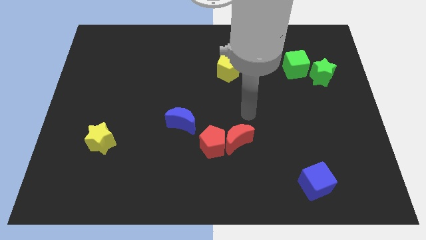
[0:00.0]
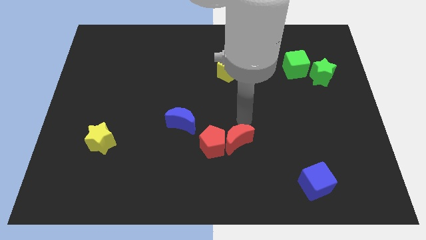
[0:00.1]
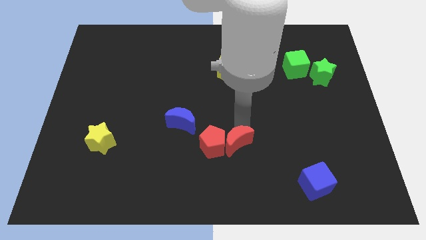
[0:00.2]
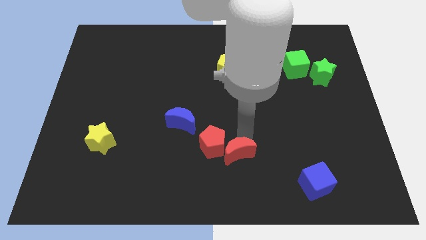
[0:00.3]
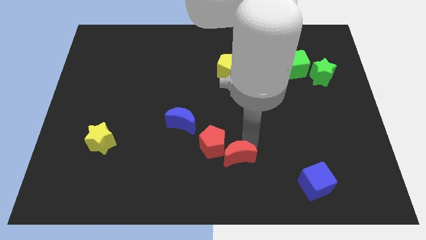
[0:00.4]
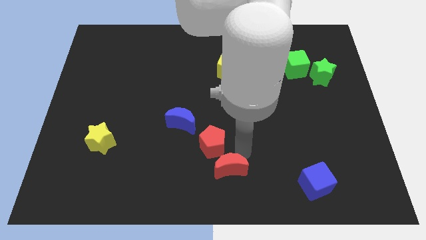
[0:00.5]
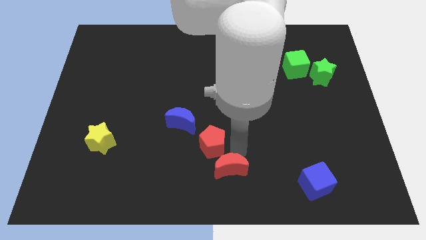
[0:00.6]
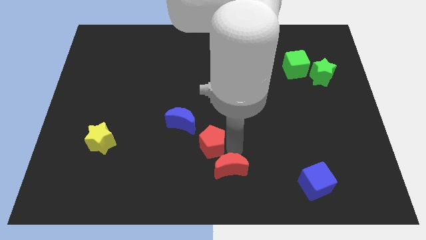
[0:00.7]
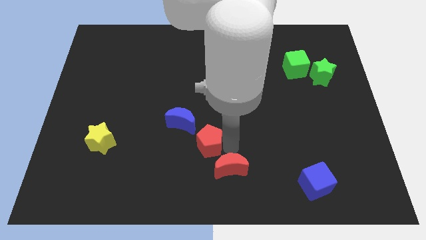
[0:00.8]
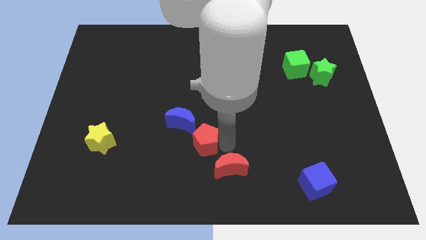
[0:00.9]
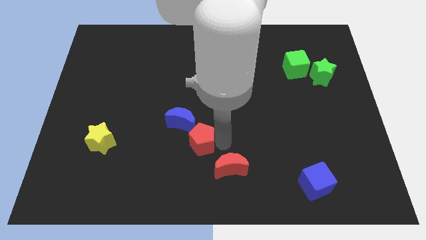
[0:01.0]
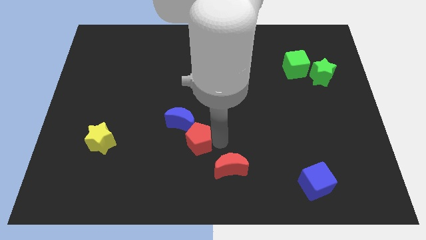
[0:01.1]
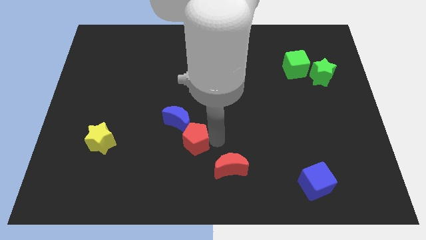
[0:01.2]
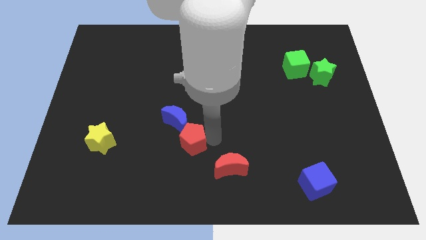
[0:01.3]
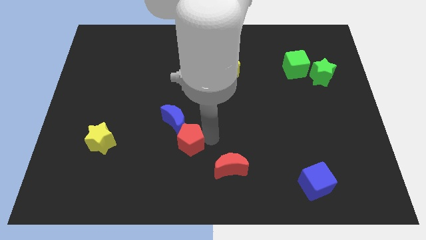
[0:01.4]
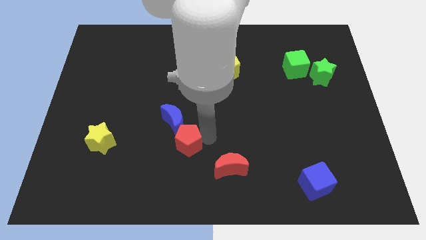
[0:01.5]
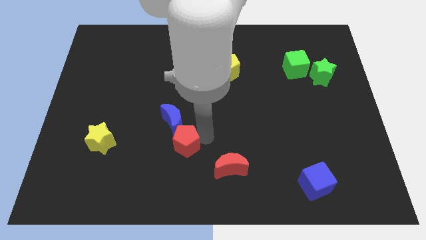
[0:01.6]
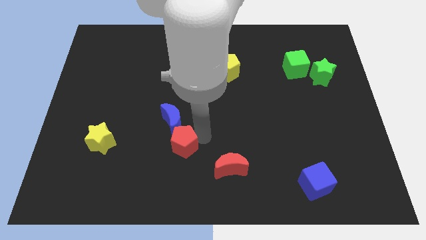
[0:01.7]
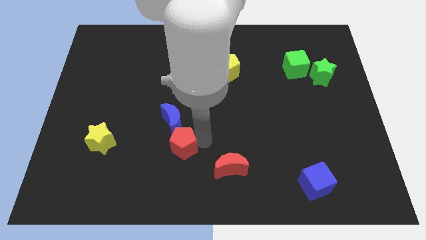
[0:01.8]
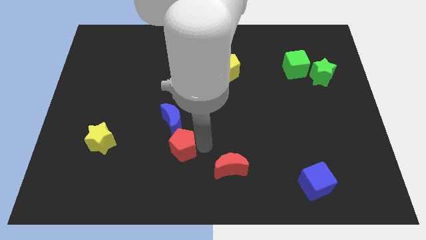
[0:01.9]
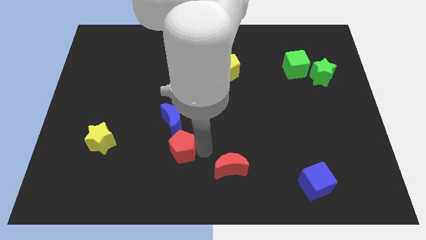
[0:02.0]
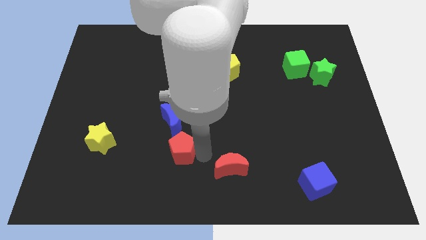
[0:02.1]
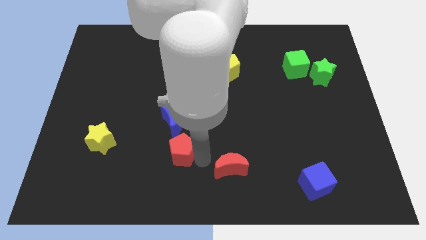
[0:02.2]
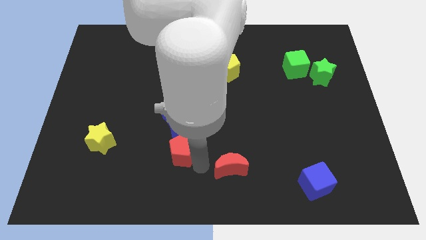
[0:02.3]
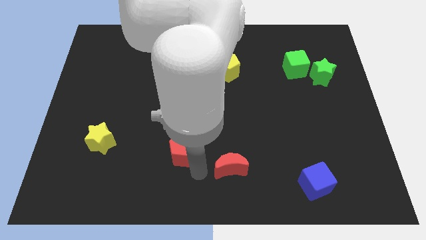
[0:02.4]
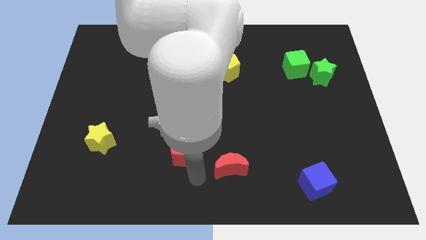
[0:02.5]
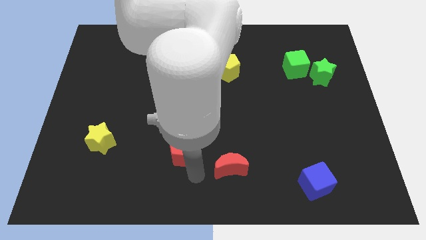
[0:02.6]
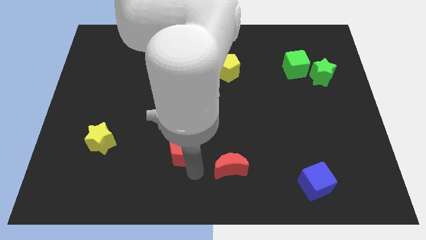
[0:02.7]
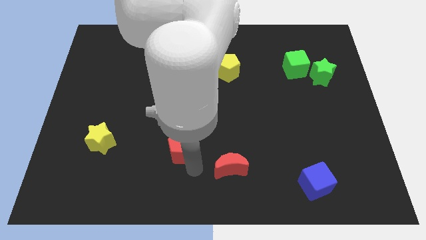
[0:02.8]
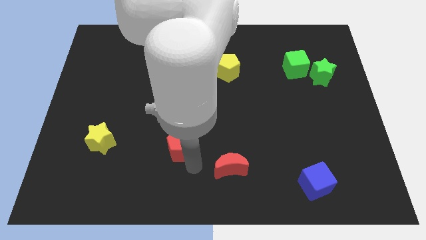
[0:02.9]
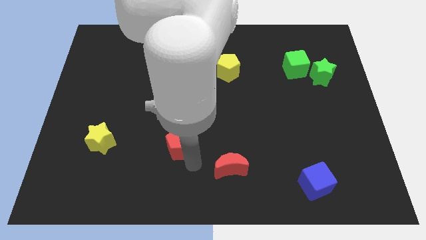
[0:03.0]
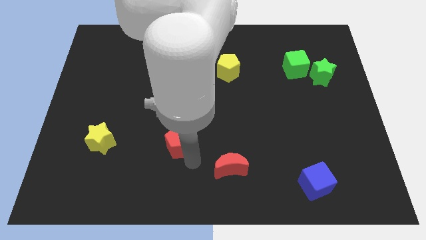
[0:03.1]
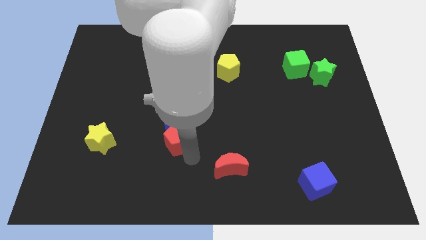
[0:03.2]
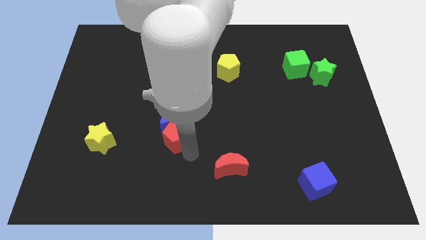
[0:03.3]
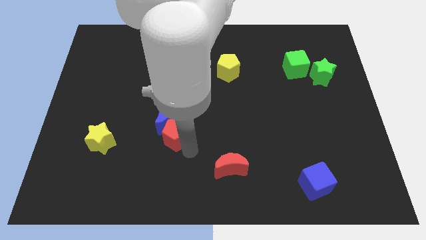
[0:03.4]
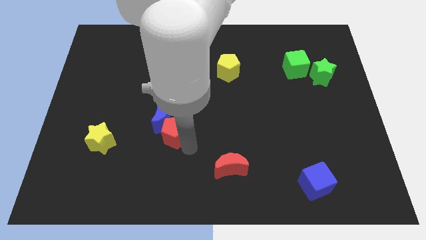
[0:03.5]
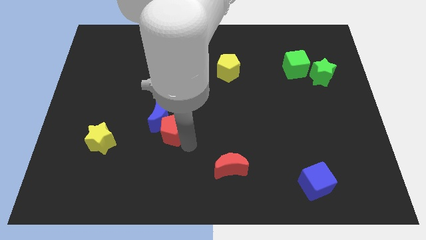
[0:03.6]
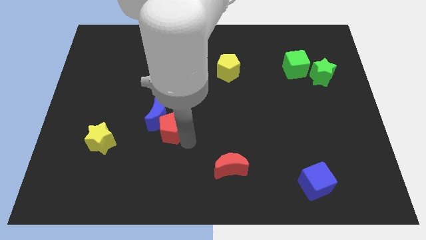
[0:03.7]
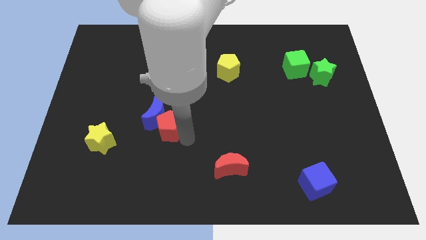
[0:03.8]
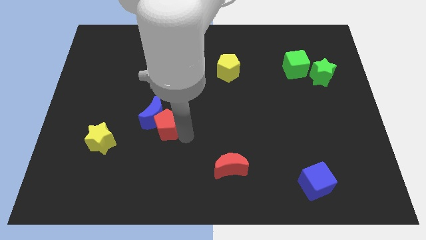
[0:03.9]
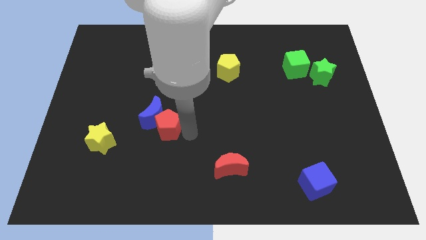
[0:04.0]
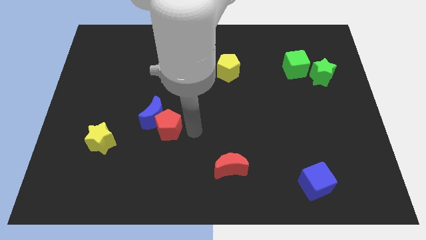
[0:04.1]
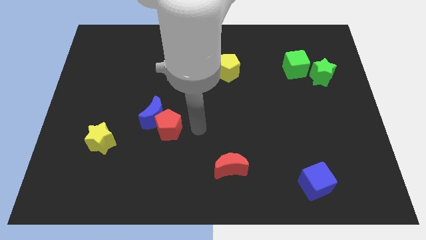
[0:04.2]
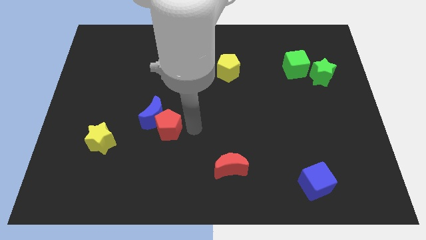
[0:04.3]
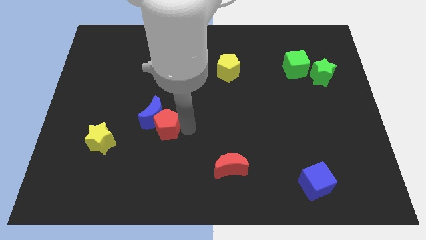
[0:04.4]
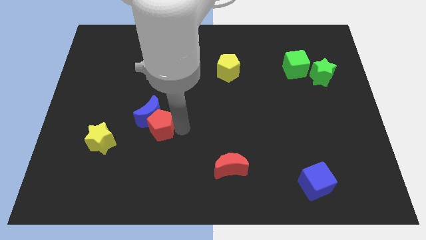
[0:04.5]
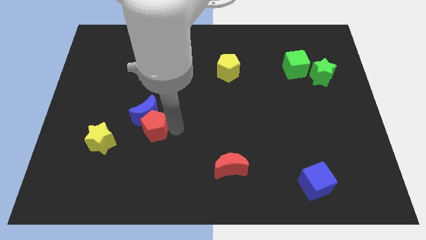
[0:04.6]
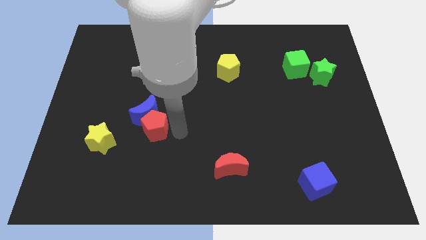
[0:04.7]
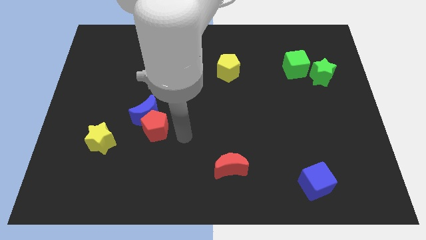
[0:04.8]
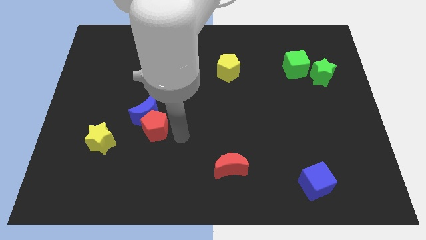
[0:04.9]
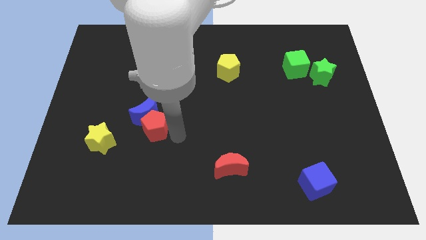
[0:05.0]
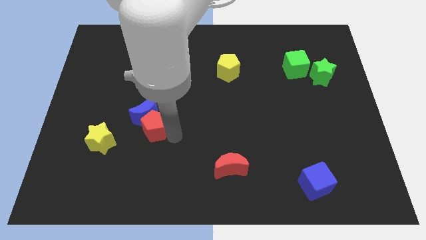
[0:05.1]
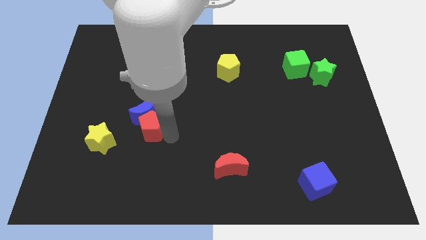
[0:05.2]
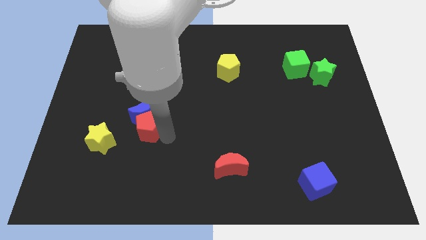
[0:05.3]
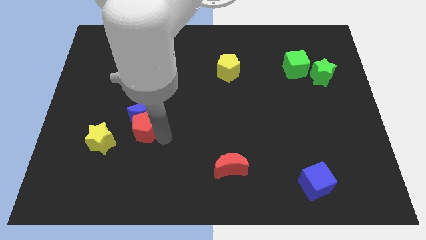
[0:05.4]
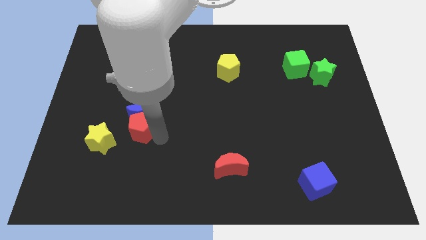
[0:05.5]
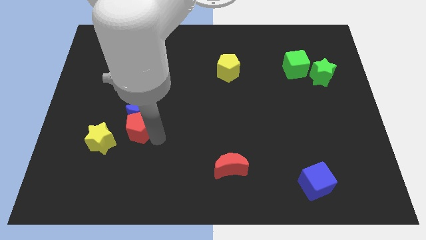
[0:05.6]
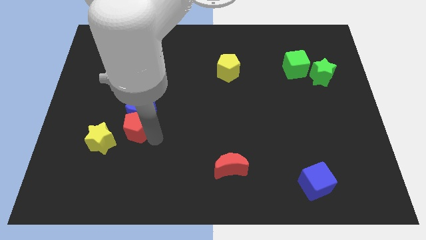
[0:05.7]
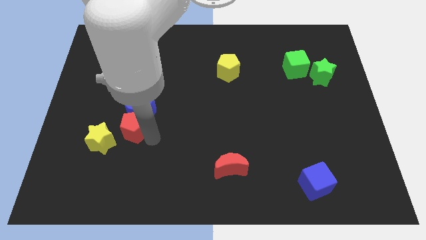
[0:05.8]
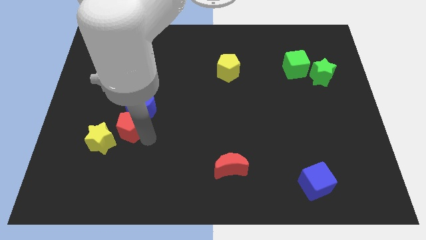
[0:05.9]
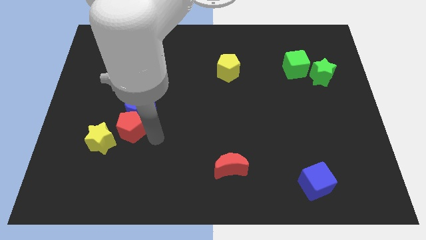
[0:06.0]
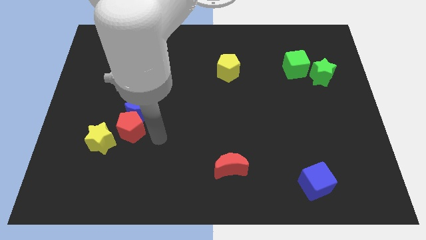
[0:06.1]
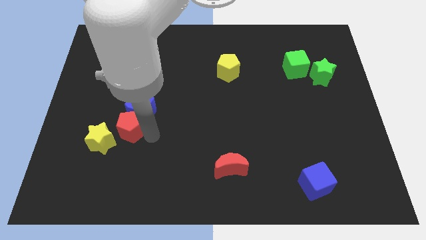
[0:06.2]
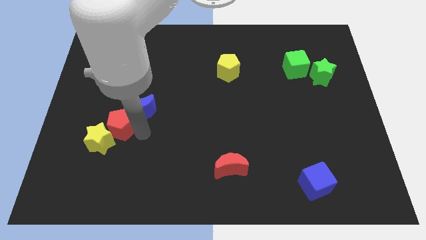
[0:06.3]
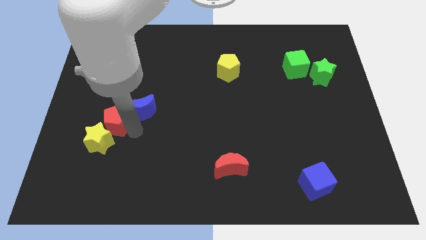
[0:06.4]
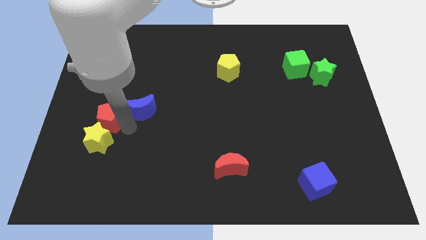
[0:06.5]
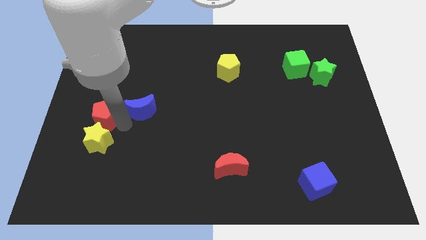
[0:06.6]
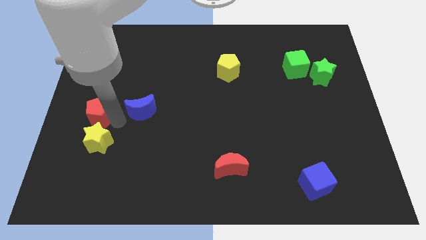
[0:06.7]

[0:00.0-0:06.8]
put the red pentagon to the left side
